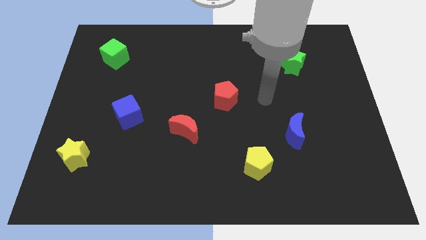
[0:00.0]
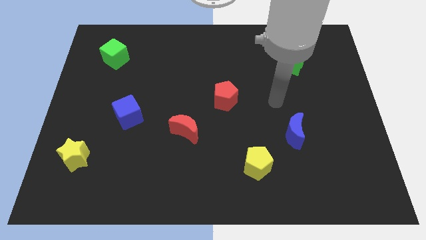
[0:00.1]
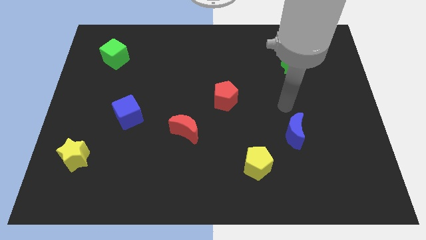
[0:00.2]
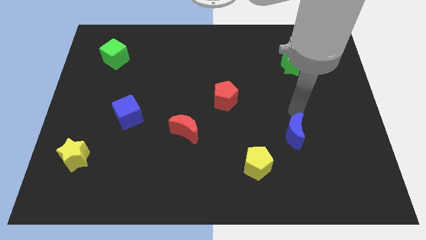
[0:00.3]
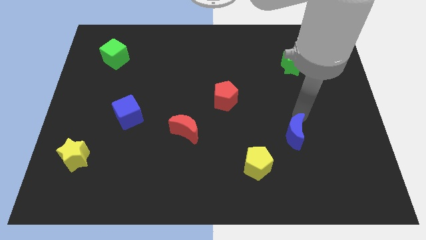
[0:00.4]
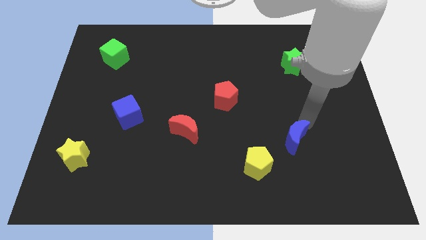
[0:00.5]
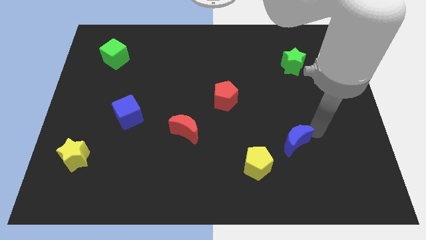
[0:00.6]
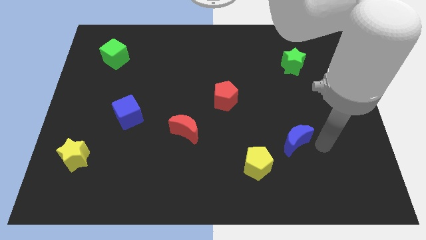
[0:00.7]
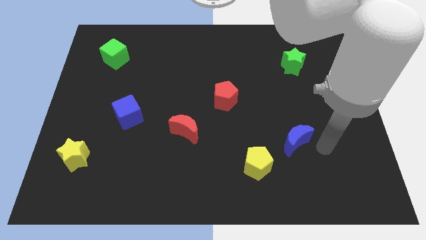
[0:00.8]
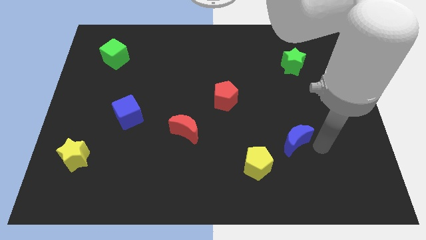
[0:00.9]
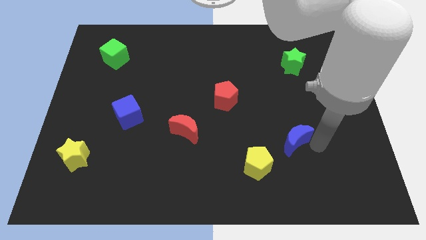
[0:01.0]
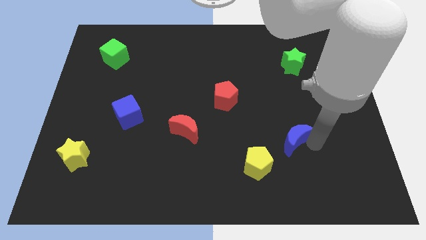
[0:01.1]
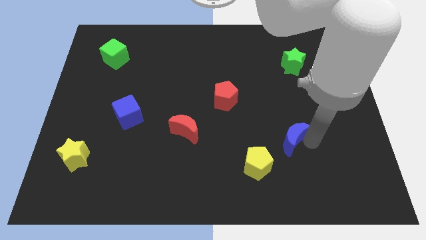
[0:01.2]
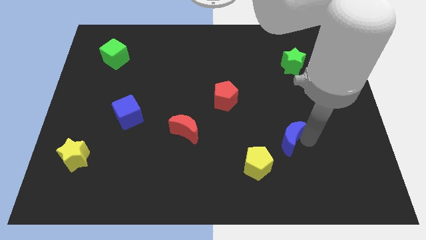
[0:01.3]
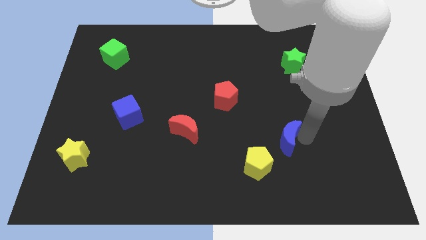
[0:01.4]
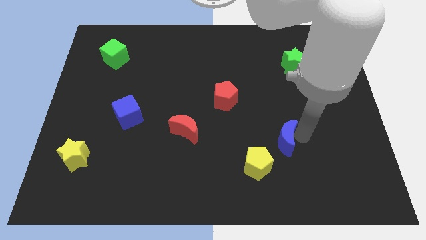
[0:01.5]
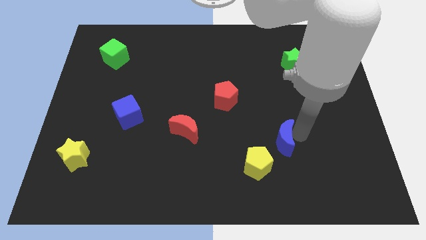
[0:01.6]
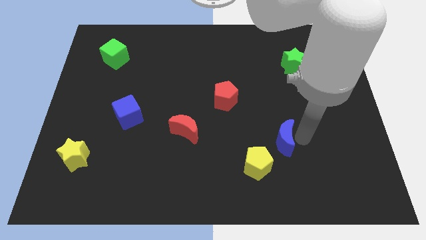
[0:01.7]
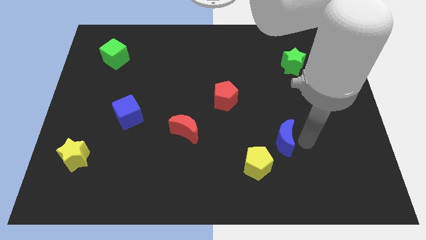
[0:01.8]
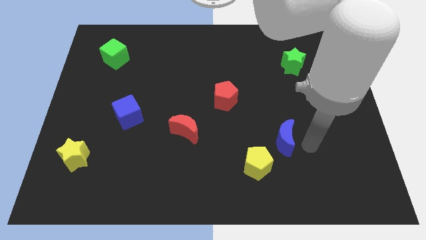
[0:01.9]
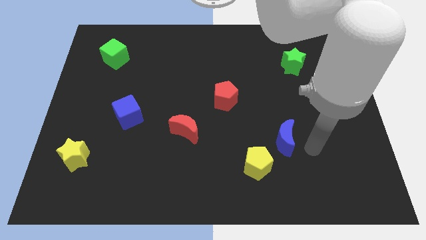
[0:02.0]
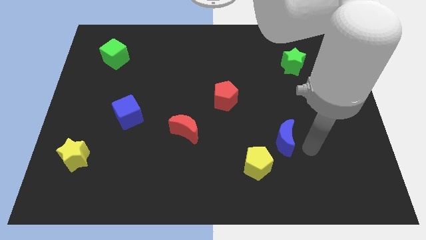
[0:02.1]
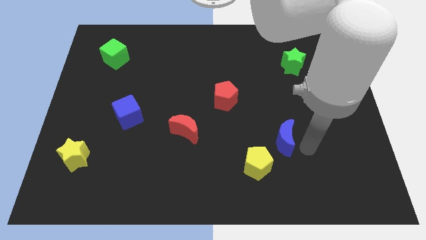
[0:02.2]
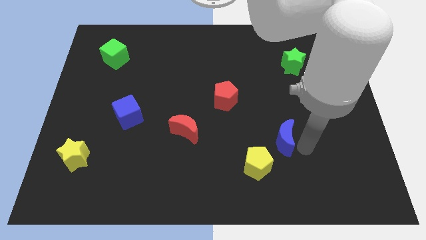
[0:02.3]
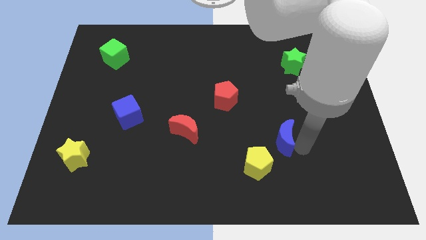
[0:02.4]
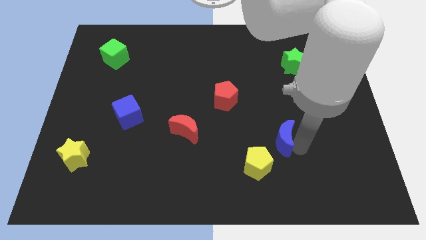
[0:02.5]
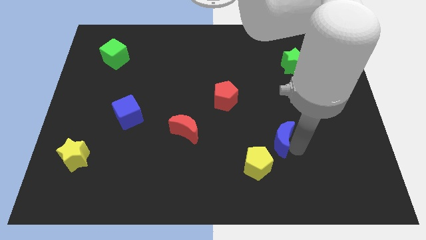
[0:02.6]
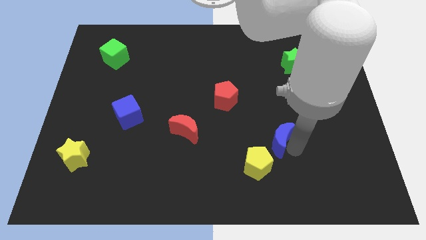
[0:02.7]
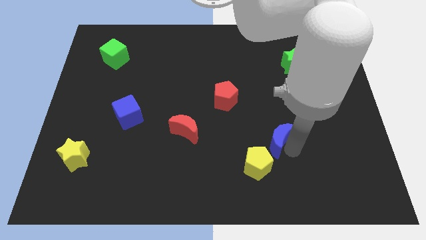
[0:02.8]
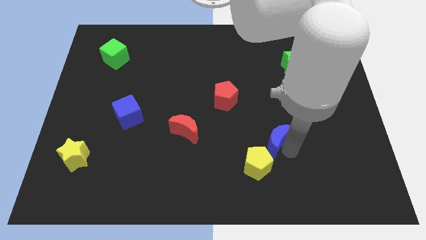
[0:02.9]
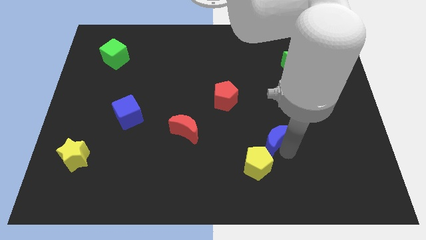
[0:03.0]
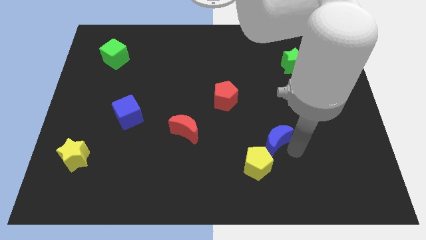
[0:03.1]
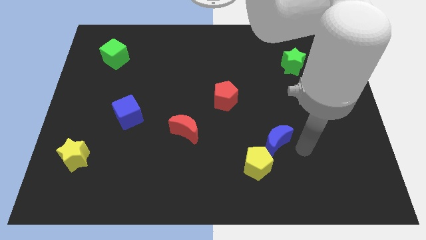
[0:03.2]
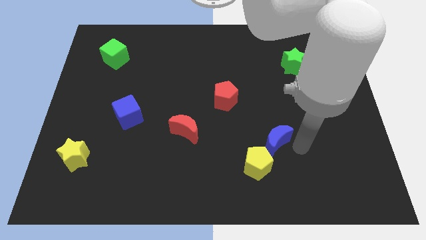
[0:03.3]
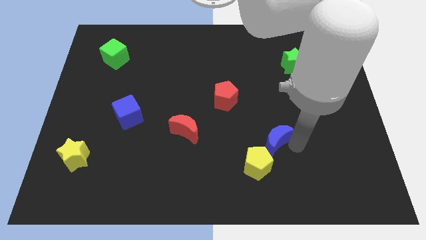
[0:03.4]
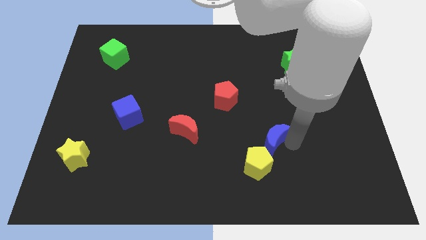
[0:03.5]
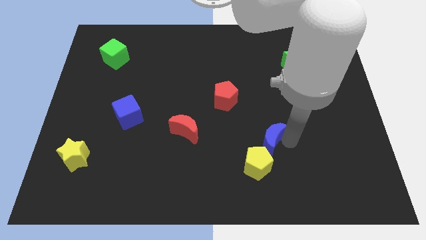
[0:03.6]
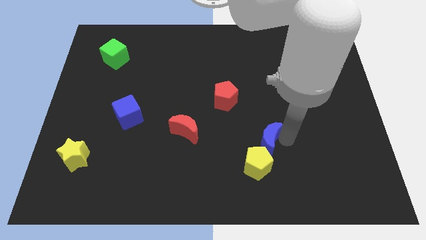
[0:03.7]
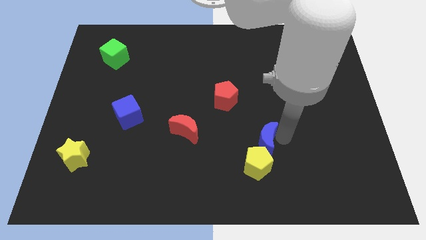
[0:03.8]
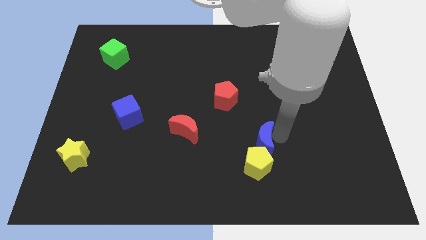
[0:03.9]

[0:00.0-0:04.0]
slightly slide the blue moon left

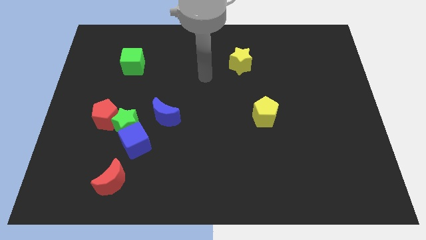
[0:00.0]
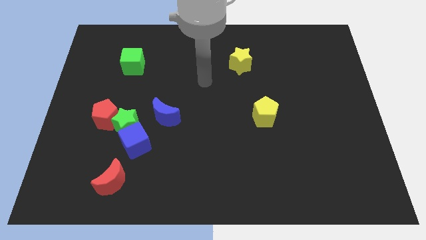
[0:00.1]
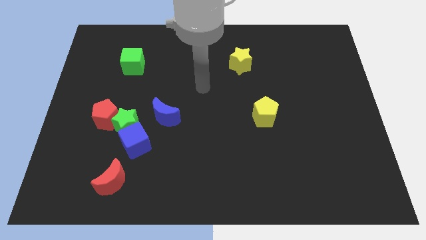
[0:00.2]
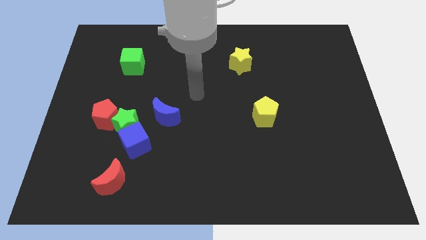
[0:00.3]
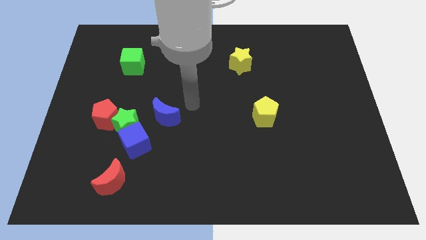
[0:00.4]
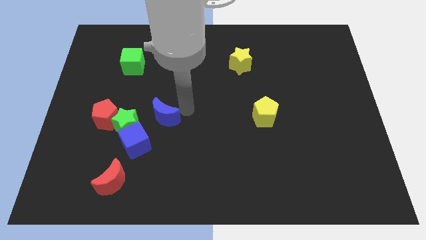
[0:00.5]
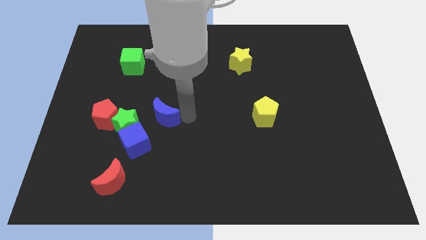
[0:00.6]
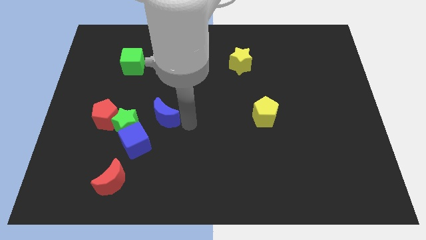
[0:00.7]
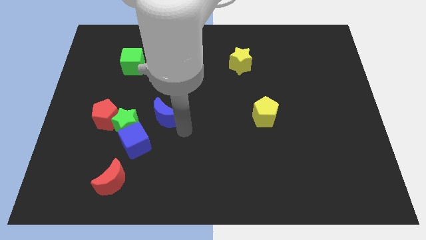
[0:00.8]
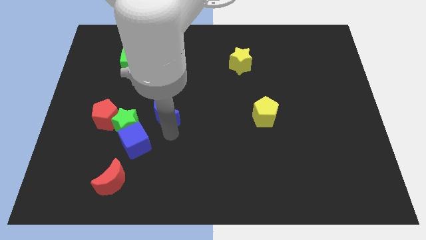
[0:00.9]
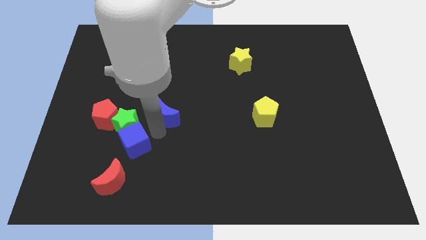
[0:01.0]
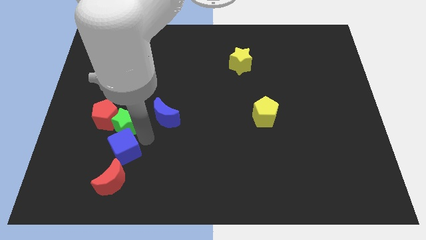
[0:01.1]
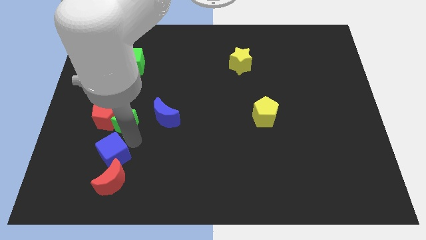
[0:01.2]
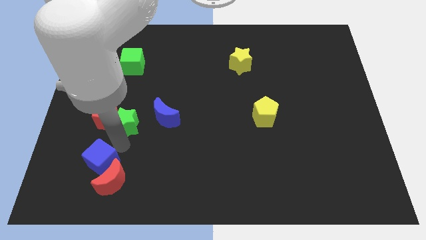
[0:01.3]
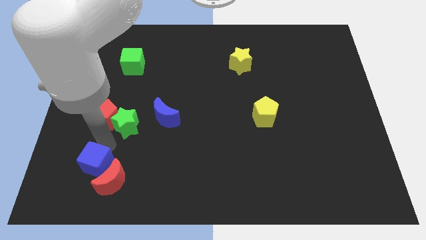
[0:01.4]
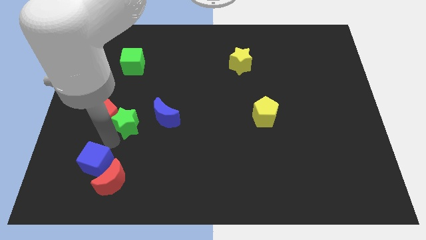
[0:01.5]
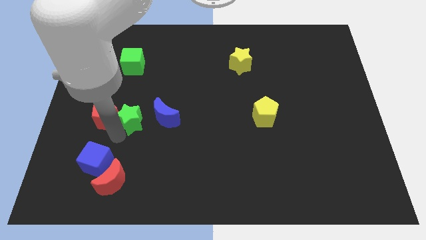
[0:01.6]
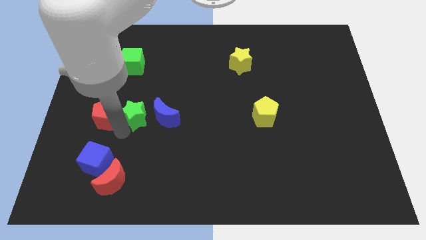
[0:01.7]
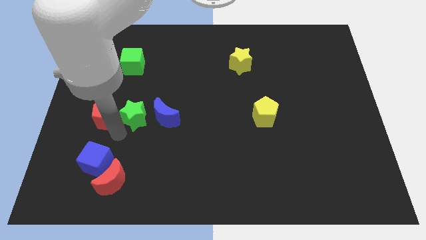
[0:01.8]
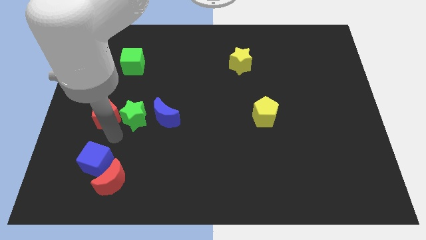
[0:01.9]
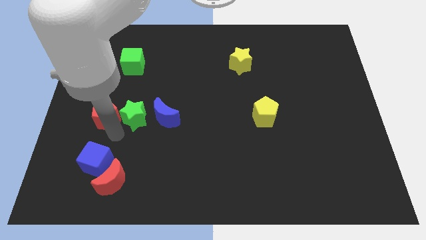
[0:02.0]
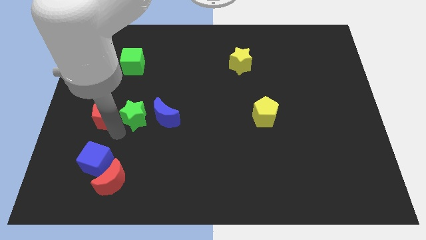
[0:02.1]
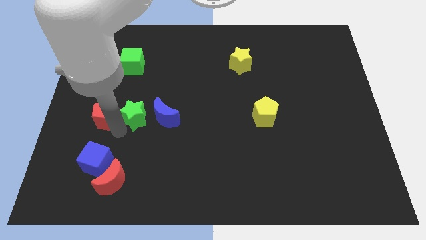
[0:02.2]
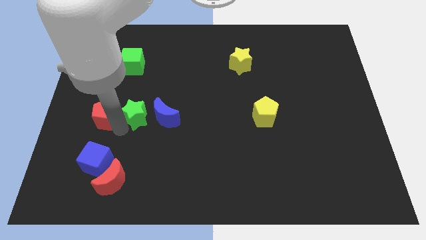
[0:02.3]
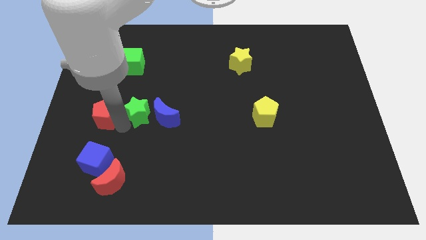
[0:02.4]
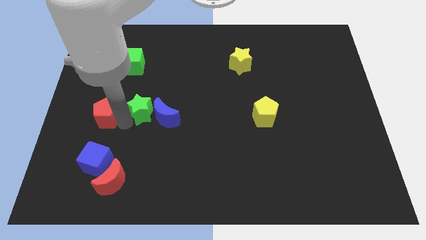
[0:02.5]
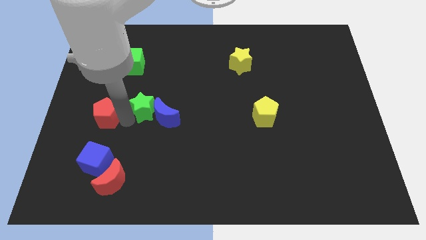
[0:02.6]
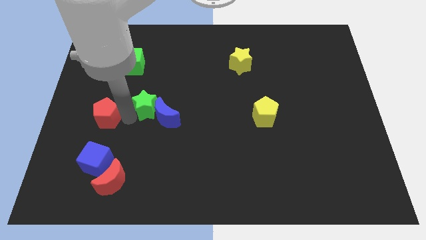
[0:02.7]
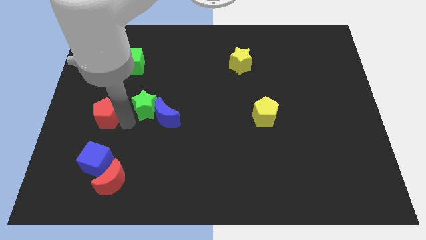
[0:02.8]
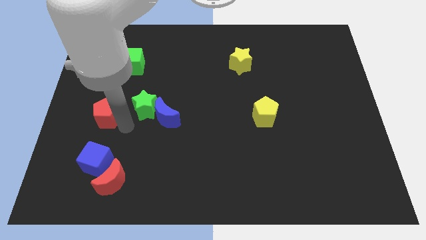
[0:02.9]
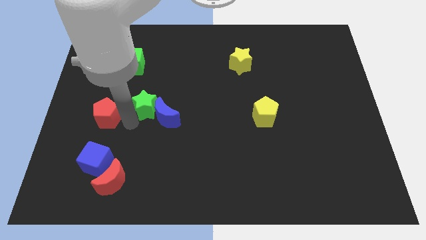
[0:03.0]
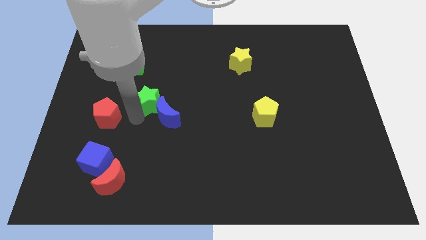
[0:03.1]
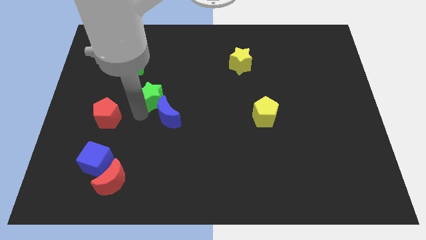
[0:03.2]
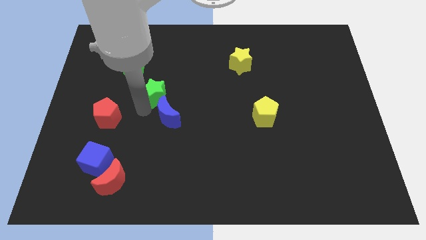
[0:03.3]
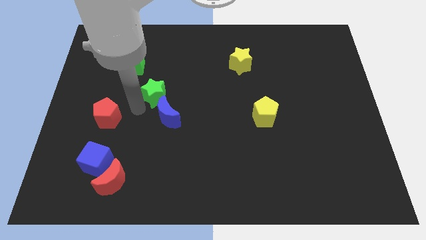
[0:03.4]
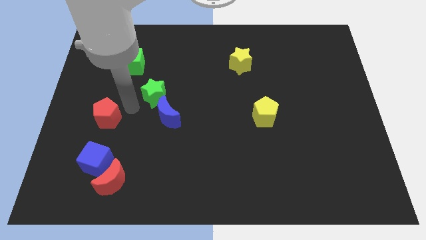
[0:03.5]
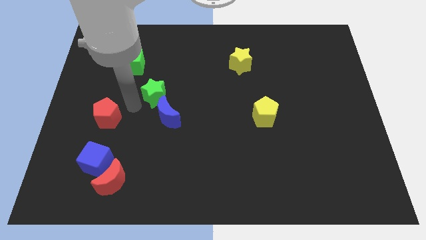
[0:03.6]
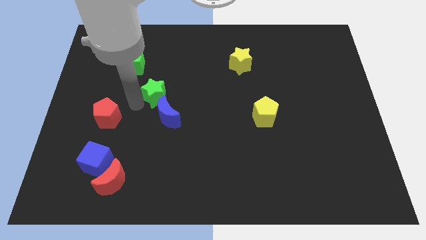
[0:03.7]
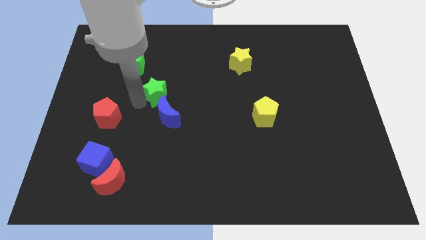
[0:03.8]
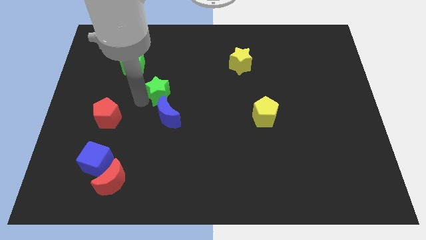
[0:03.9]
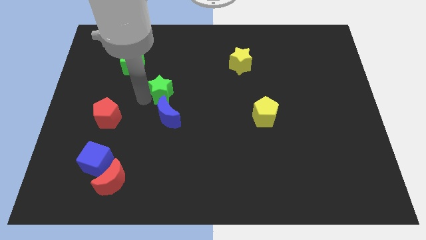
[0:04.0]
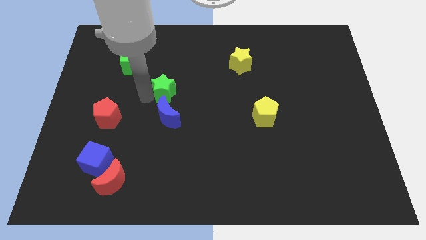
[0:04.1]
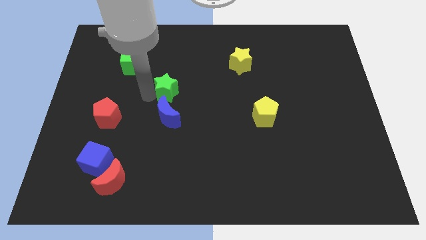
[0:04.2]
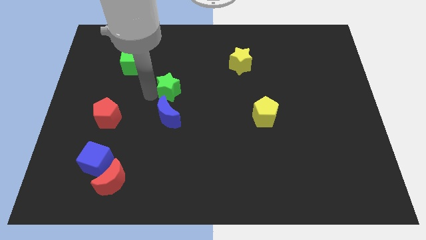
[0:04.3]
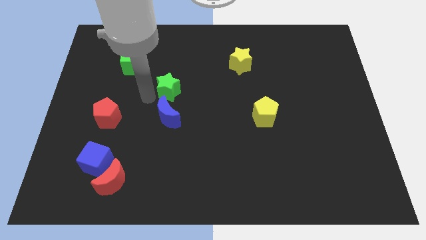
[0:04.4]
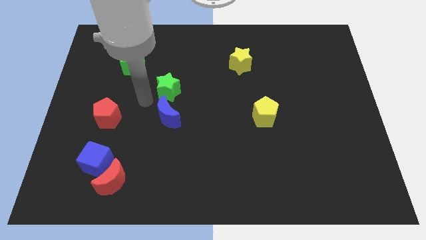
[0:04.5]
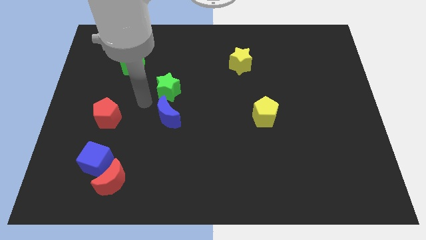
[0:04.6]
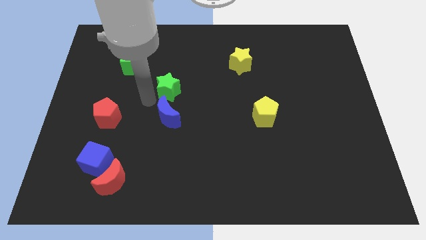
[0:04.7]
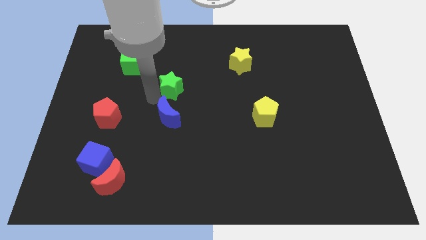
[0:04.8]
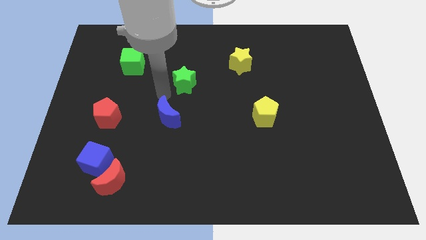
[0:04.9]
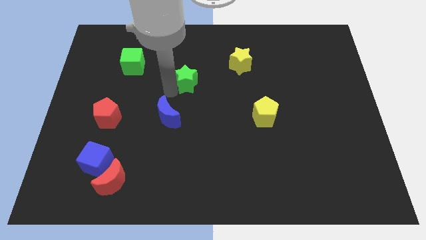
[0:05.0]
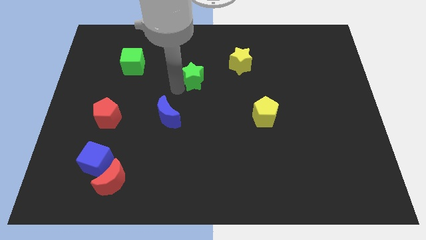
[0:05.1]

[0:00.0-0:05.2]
slide the green star diagonally up and right
